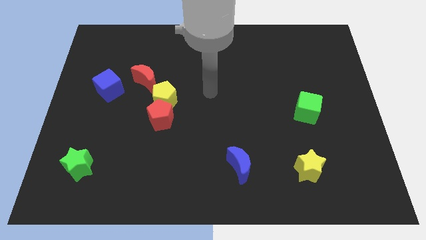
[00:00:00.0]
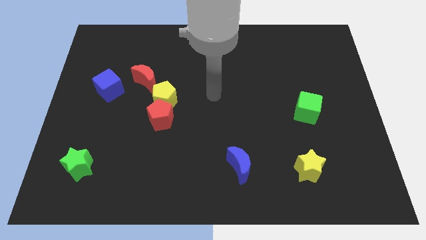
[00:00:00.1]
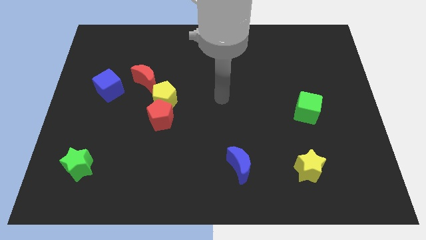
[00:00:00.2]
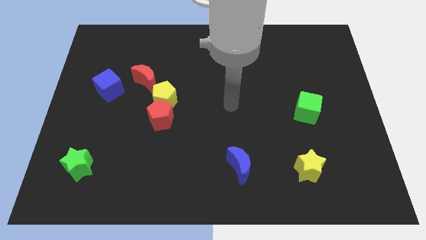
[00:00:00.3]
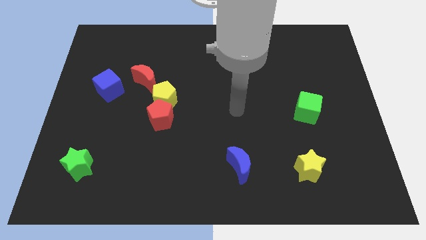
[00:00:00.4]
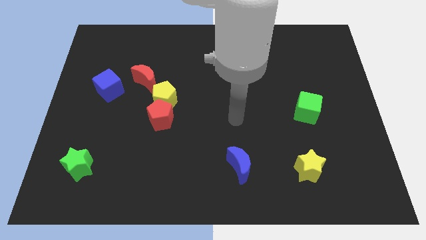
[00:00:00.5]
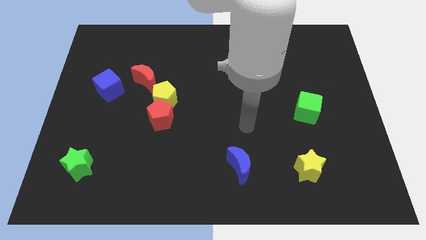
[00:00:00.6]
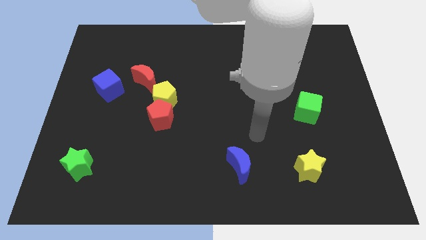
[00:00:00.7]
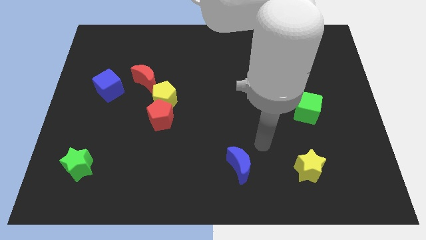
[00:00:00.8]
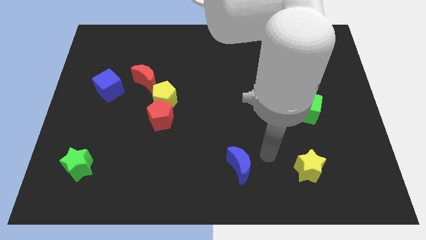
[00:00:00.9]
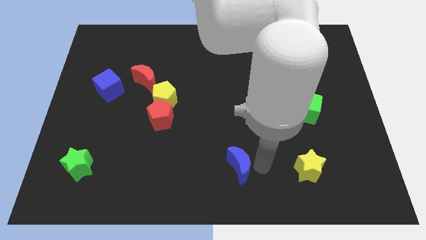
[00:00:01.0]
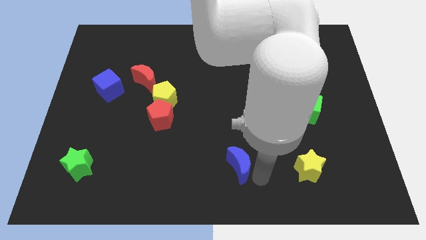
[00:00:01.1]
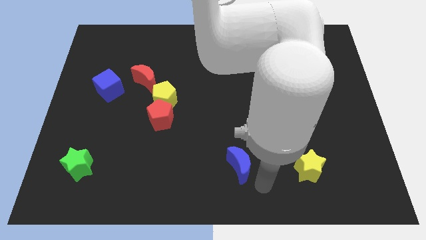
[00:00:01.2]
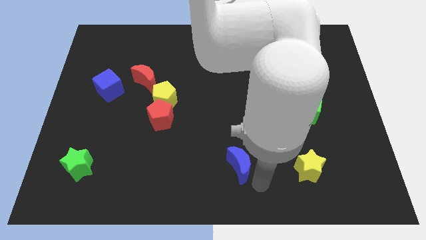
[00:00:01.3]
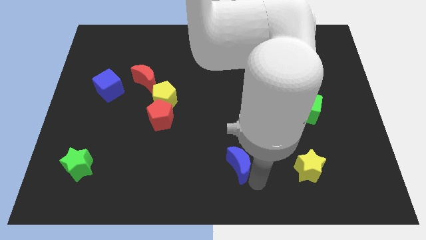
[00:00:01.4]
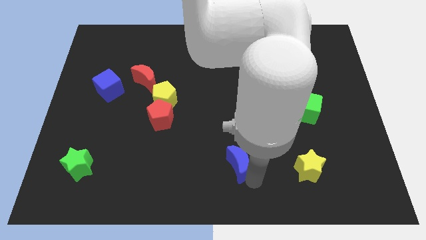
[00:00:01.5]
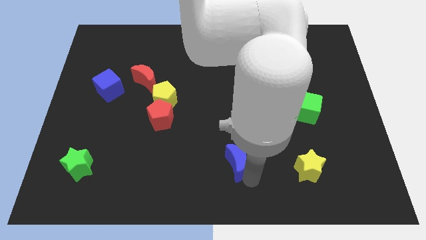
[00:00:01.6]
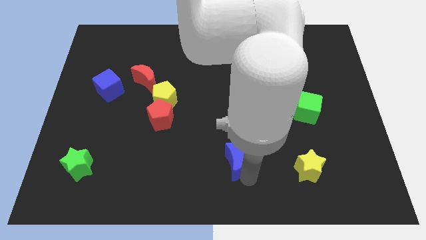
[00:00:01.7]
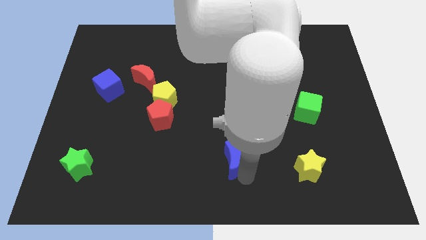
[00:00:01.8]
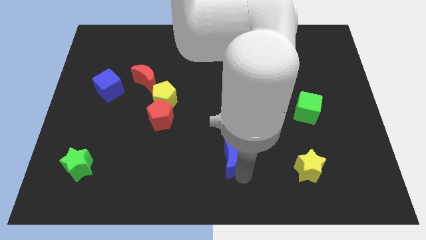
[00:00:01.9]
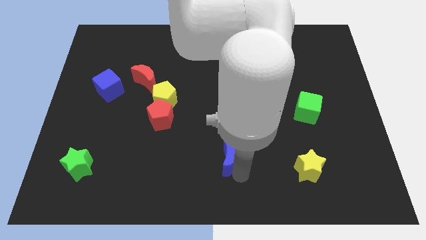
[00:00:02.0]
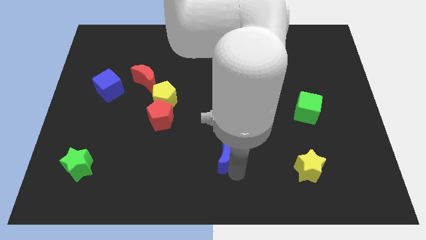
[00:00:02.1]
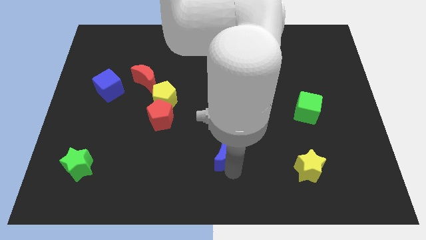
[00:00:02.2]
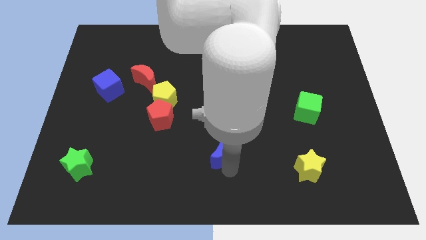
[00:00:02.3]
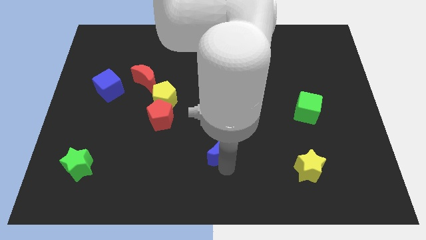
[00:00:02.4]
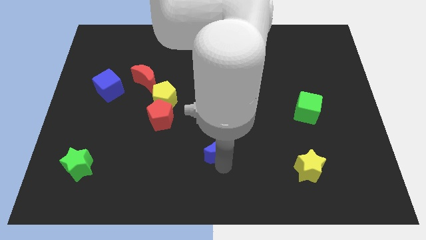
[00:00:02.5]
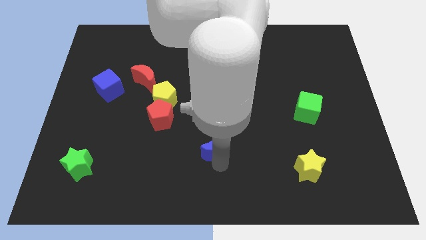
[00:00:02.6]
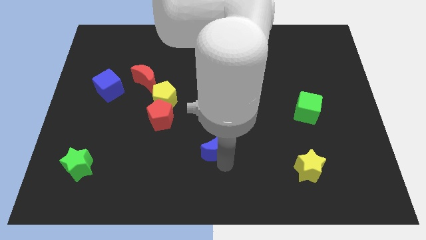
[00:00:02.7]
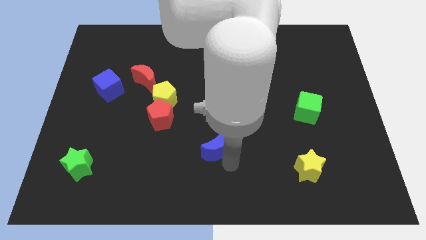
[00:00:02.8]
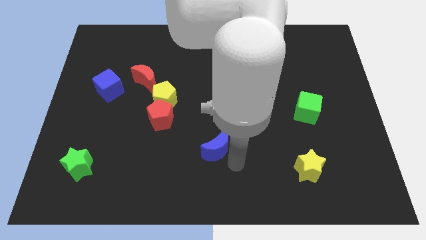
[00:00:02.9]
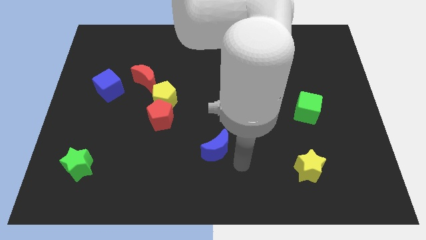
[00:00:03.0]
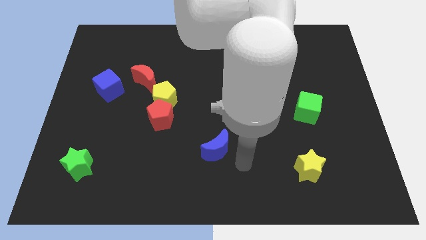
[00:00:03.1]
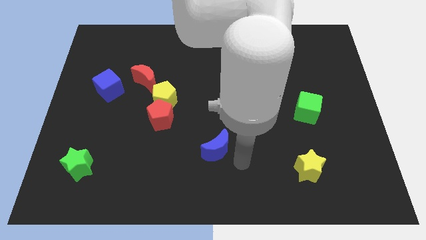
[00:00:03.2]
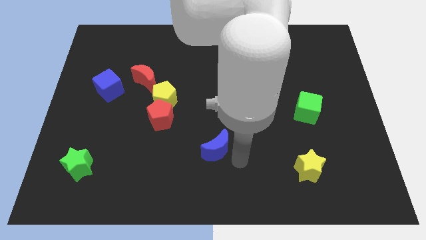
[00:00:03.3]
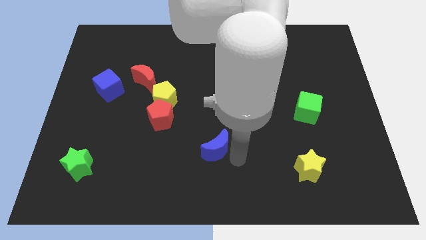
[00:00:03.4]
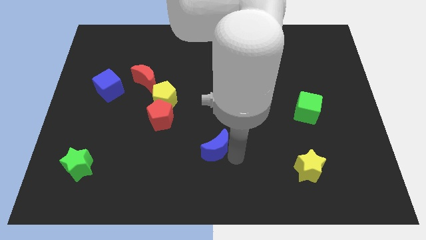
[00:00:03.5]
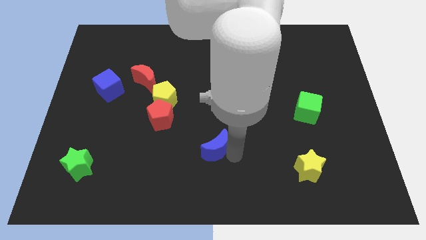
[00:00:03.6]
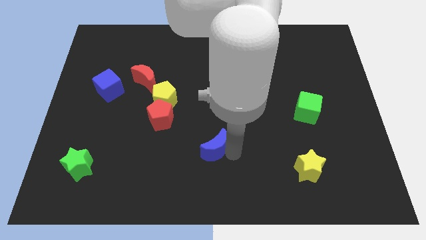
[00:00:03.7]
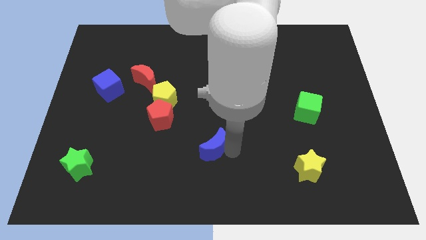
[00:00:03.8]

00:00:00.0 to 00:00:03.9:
move the blue moon a little bit diagonally upwards and to the left

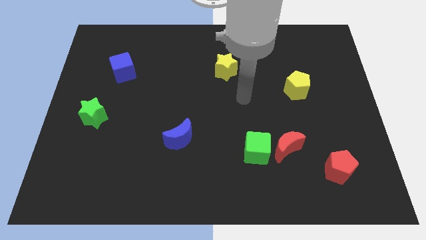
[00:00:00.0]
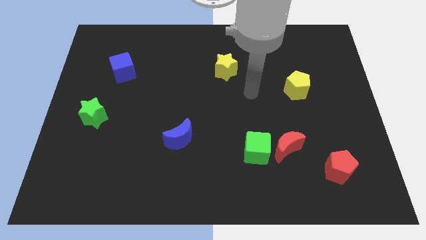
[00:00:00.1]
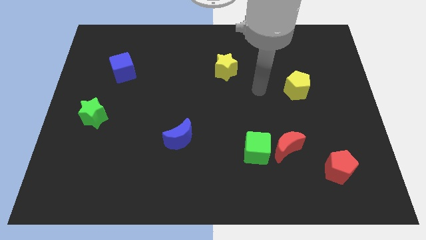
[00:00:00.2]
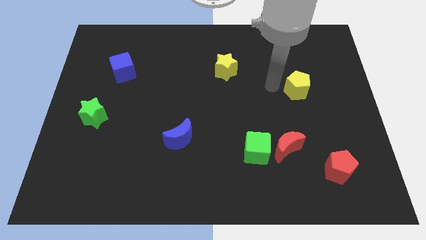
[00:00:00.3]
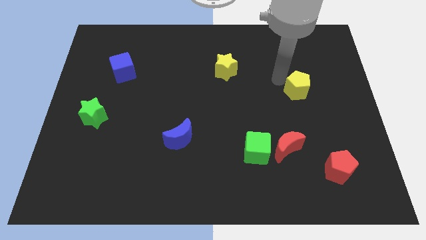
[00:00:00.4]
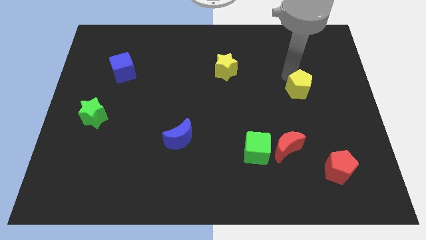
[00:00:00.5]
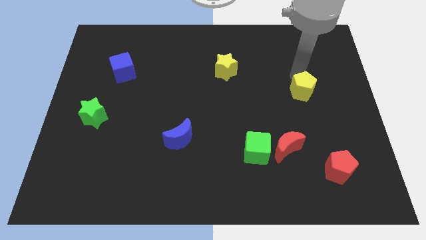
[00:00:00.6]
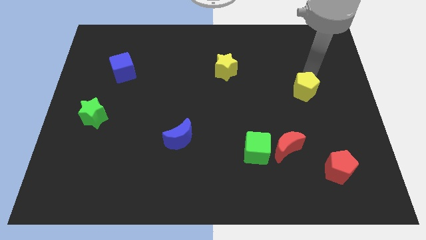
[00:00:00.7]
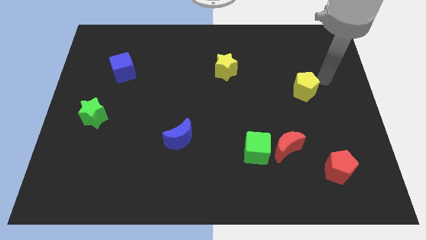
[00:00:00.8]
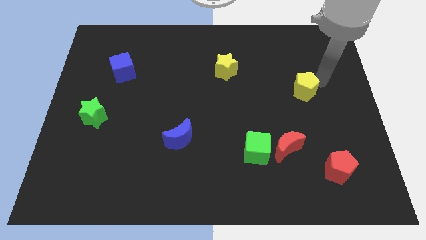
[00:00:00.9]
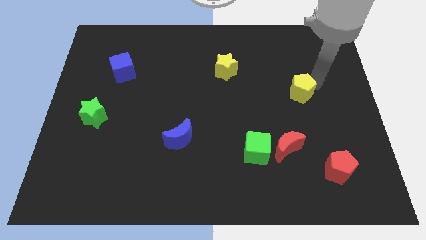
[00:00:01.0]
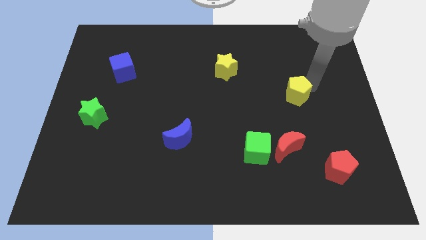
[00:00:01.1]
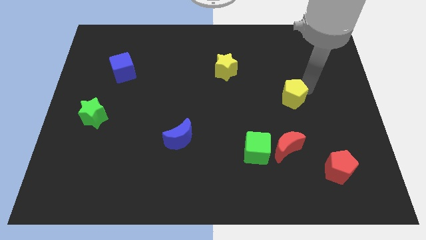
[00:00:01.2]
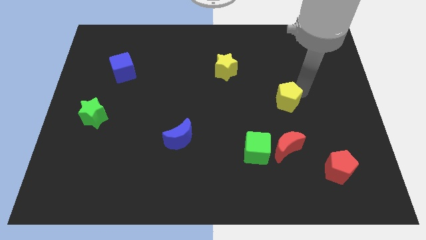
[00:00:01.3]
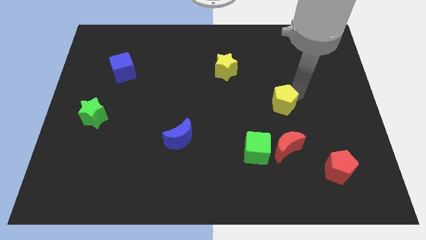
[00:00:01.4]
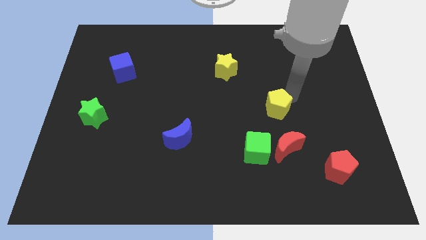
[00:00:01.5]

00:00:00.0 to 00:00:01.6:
push the yellow pentagon a little bit down and left diagonally

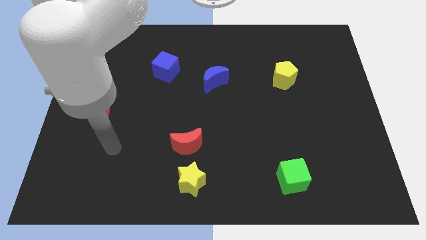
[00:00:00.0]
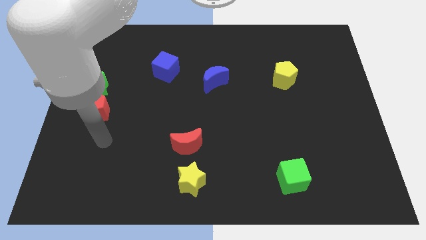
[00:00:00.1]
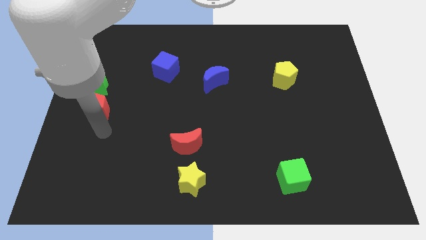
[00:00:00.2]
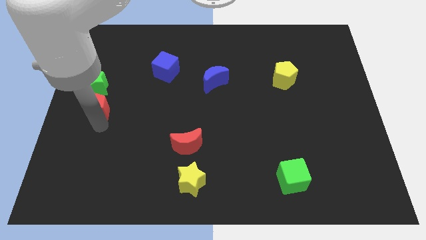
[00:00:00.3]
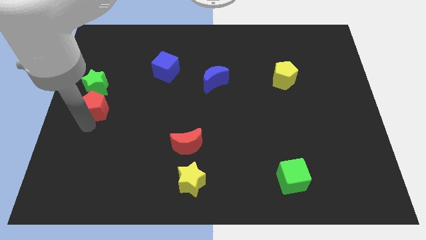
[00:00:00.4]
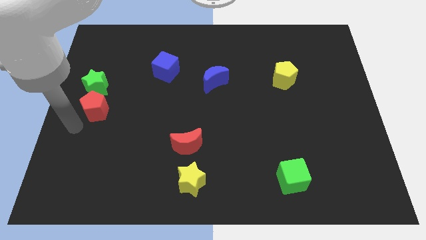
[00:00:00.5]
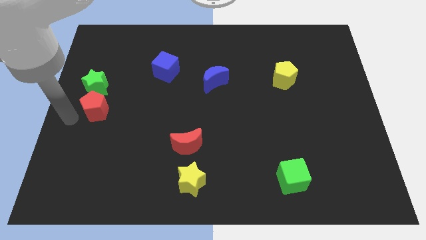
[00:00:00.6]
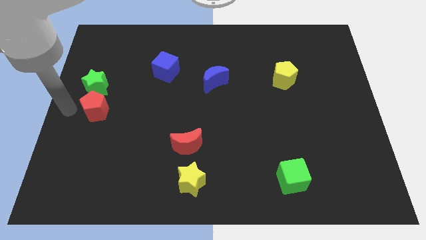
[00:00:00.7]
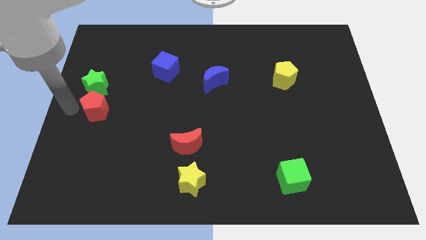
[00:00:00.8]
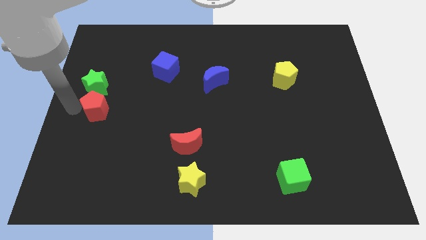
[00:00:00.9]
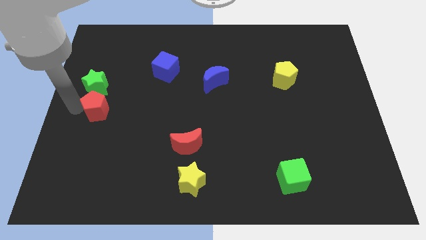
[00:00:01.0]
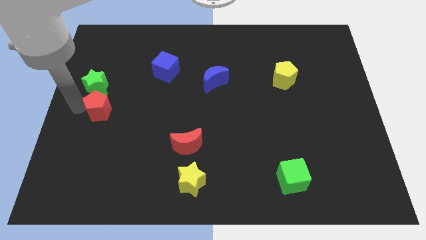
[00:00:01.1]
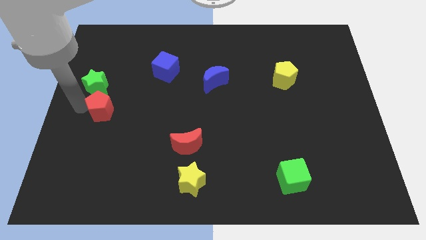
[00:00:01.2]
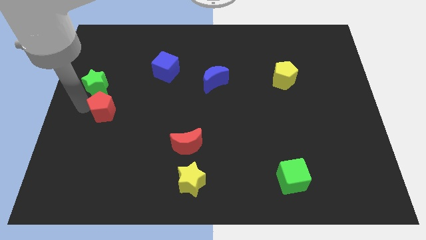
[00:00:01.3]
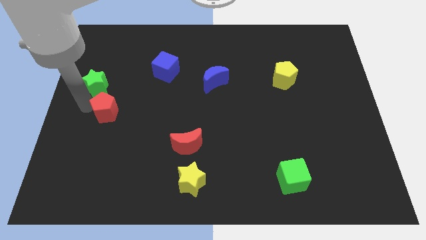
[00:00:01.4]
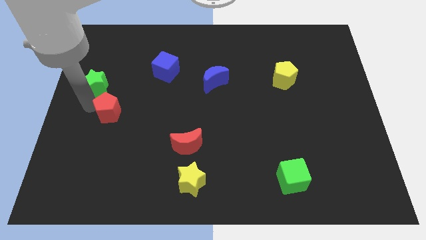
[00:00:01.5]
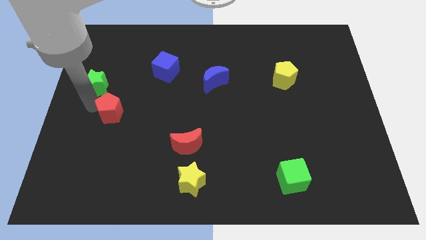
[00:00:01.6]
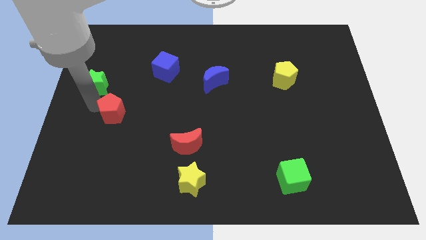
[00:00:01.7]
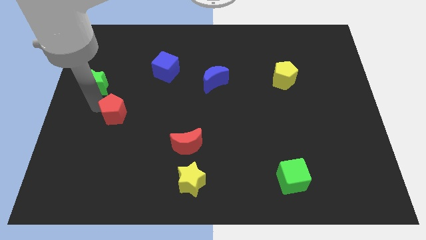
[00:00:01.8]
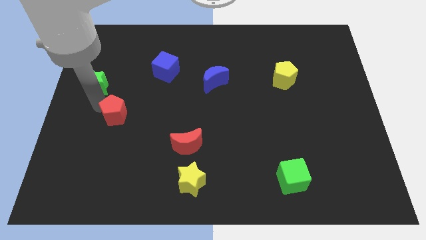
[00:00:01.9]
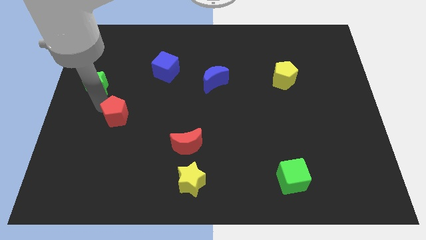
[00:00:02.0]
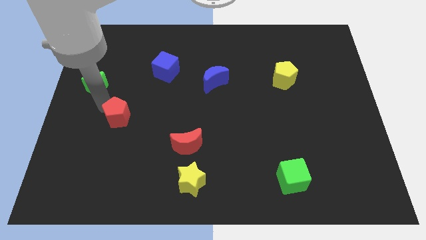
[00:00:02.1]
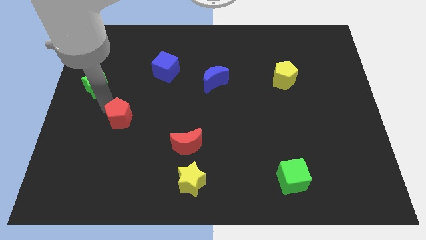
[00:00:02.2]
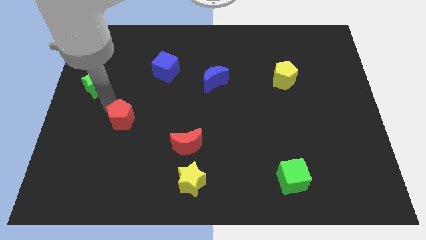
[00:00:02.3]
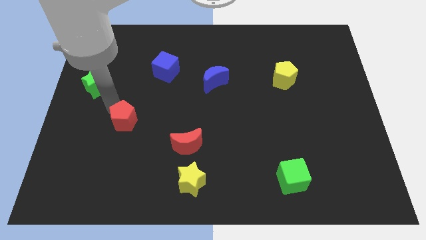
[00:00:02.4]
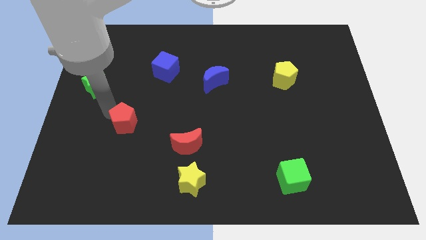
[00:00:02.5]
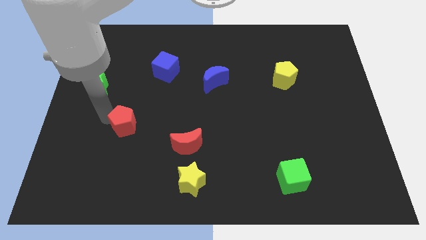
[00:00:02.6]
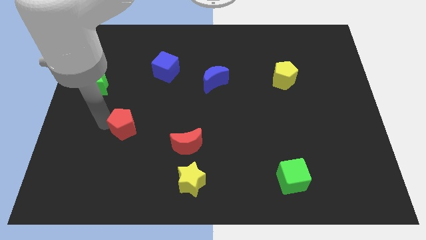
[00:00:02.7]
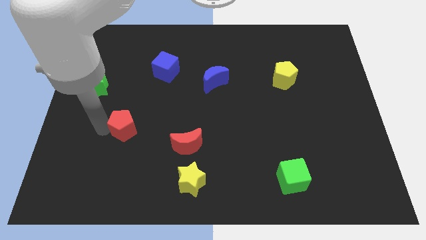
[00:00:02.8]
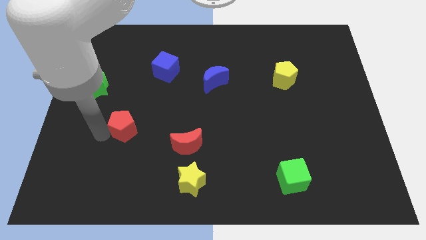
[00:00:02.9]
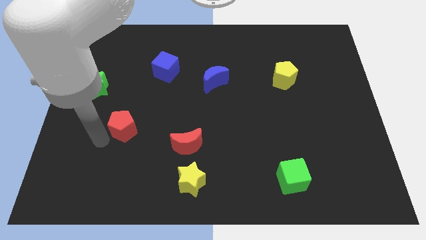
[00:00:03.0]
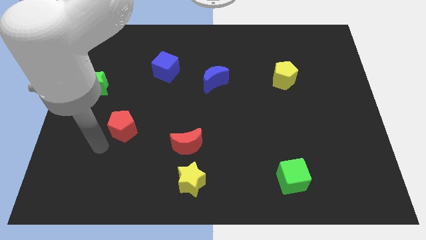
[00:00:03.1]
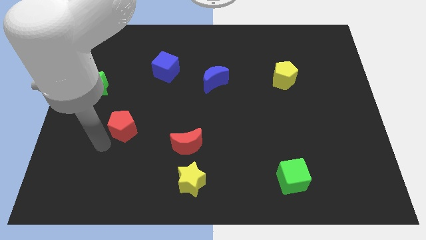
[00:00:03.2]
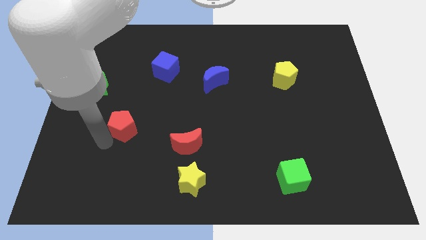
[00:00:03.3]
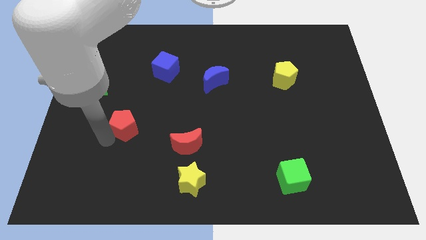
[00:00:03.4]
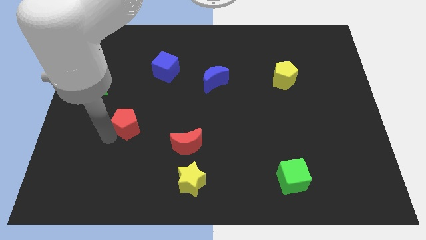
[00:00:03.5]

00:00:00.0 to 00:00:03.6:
slide the red pentagon somewhat right
